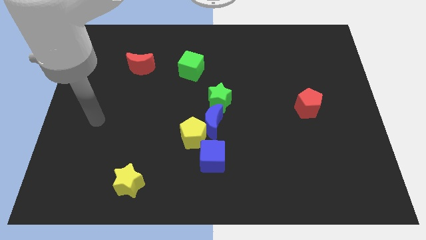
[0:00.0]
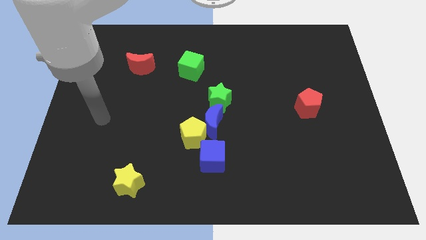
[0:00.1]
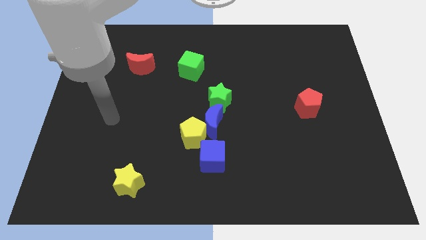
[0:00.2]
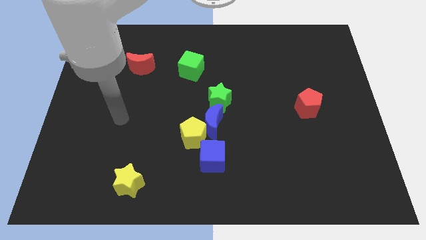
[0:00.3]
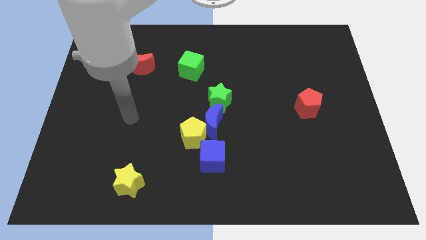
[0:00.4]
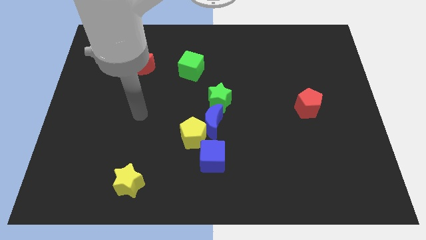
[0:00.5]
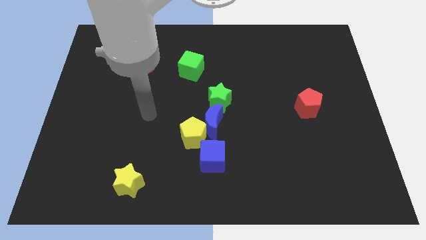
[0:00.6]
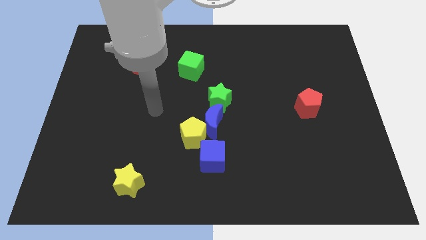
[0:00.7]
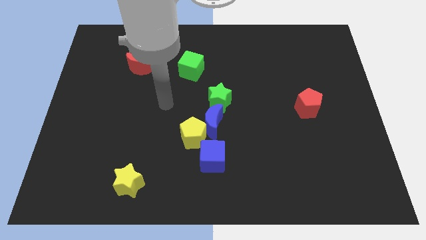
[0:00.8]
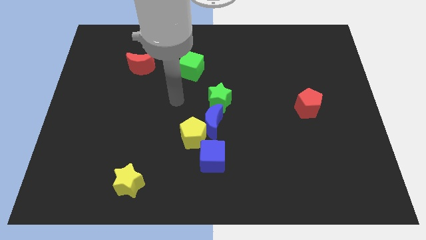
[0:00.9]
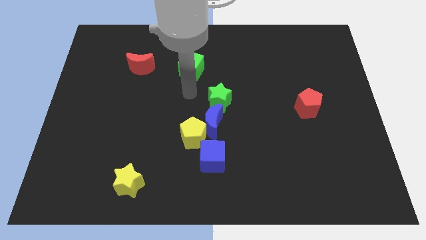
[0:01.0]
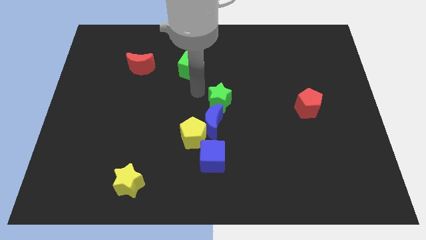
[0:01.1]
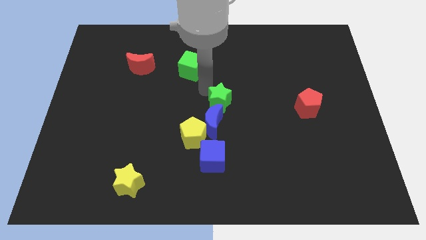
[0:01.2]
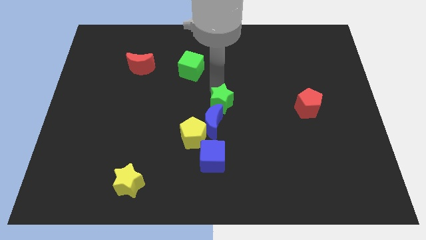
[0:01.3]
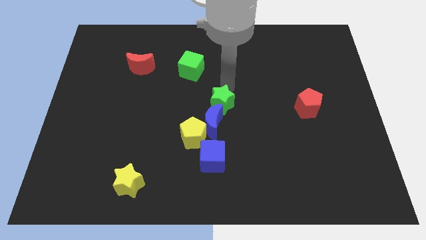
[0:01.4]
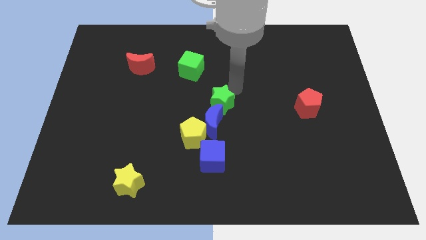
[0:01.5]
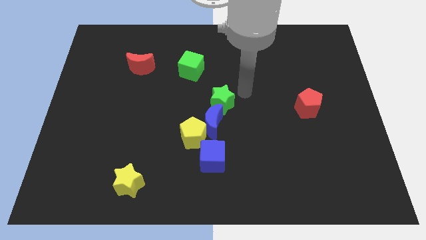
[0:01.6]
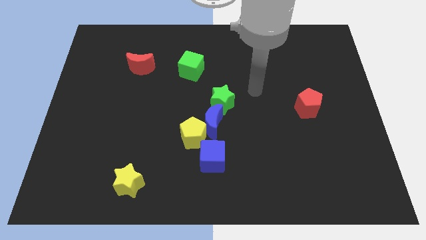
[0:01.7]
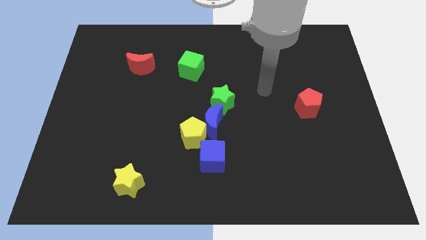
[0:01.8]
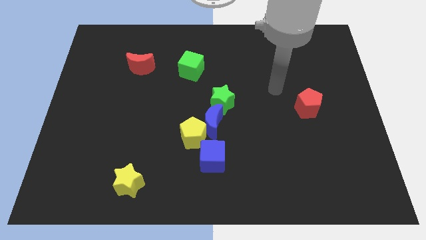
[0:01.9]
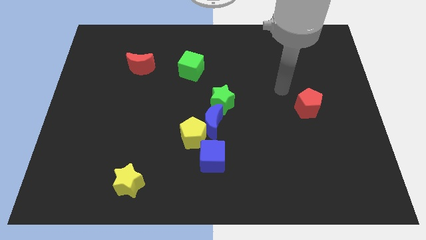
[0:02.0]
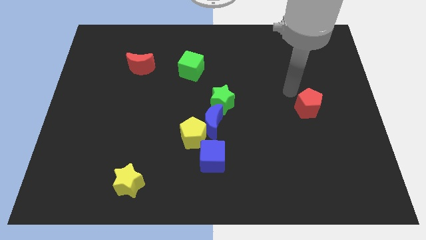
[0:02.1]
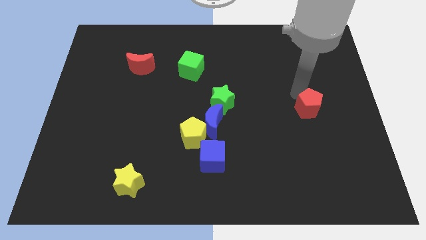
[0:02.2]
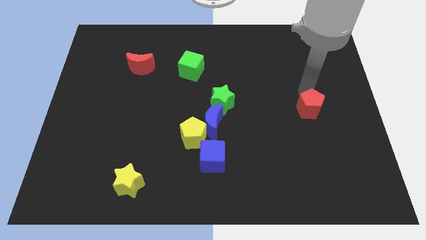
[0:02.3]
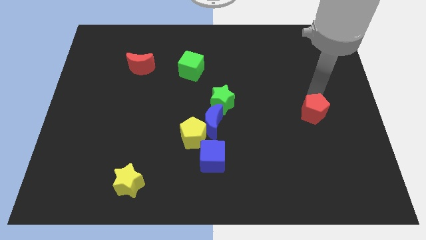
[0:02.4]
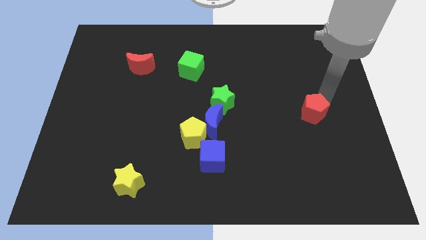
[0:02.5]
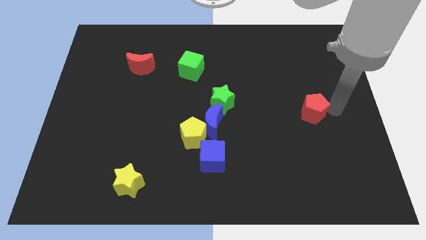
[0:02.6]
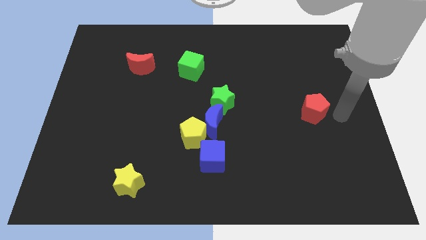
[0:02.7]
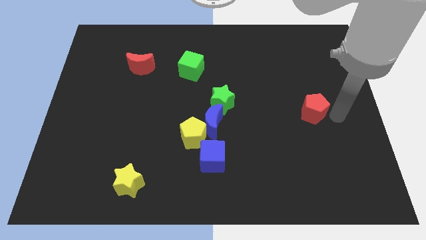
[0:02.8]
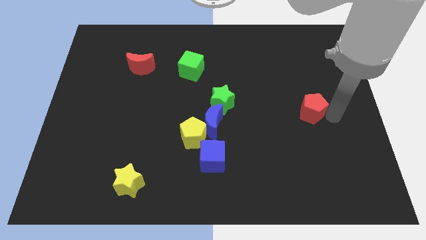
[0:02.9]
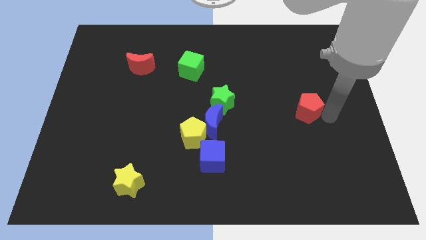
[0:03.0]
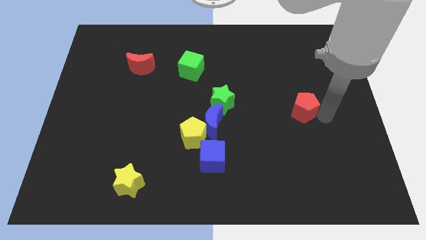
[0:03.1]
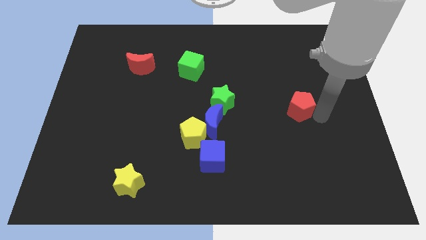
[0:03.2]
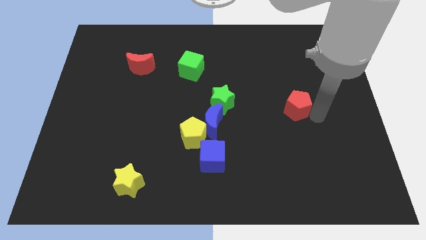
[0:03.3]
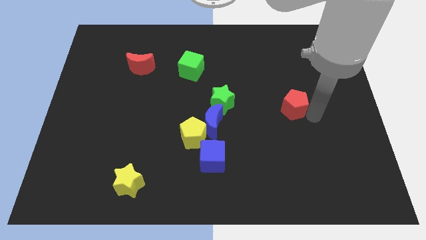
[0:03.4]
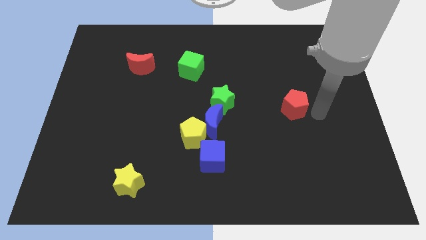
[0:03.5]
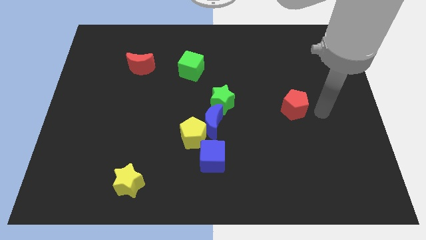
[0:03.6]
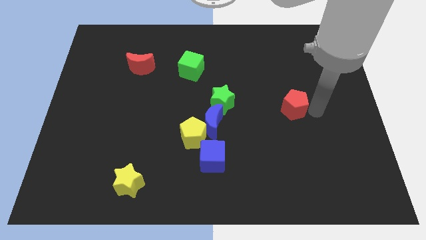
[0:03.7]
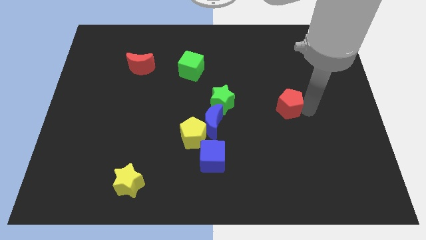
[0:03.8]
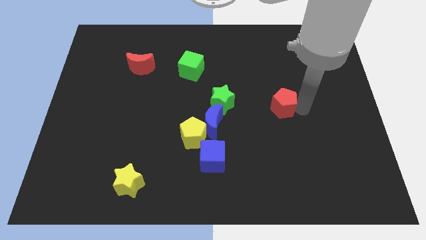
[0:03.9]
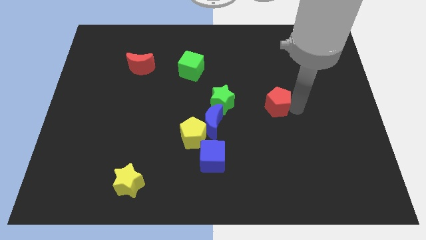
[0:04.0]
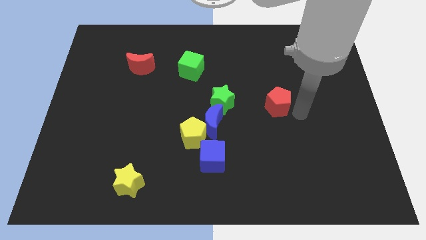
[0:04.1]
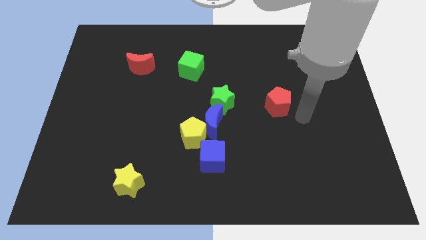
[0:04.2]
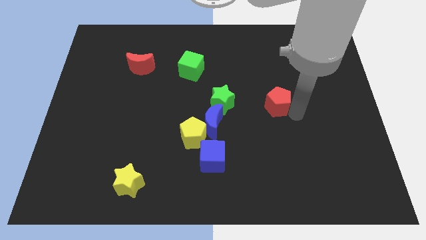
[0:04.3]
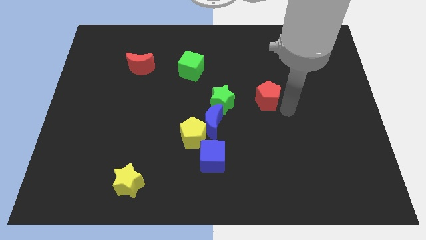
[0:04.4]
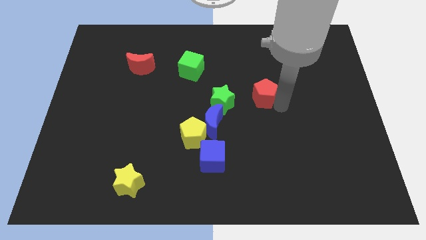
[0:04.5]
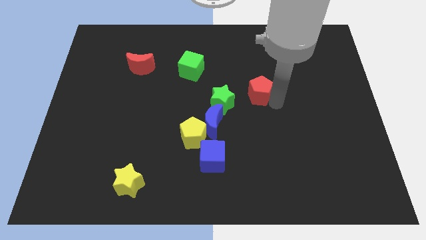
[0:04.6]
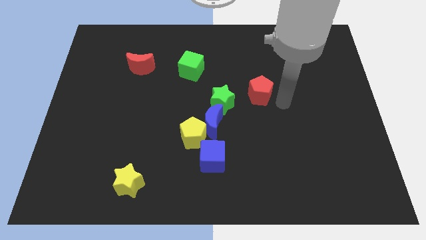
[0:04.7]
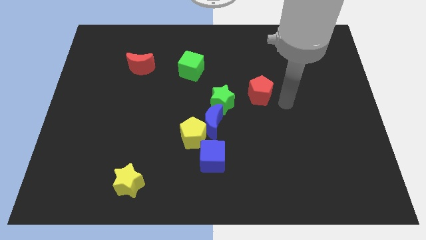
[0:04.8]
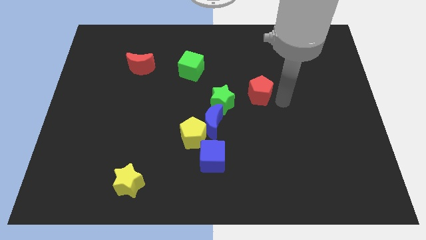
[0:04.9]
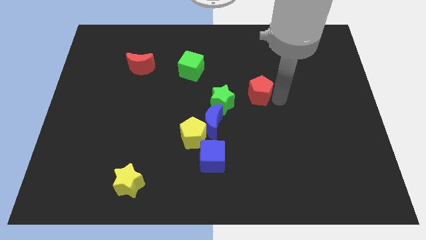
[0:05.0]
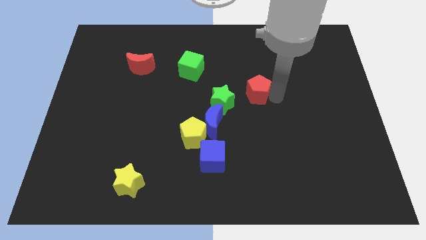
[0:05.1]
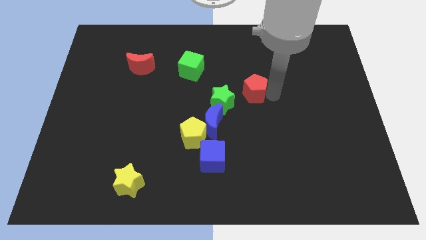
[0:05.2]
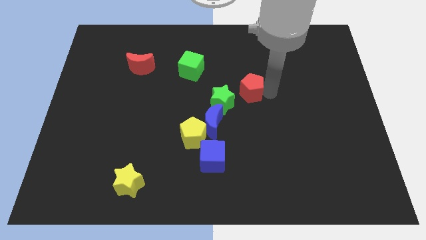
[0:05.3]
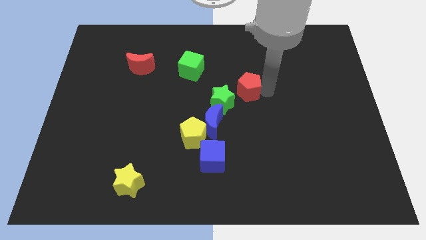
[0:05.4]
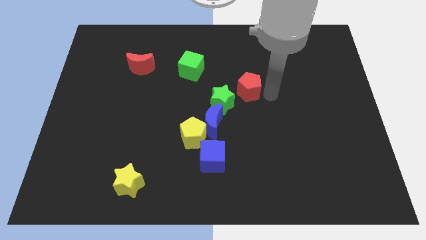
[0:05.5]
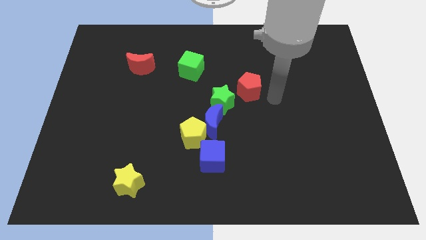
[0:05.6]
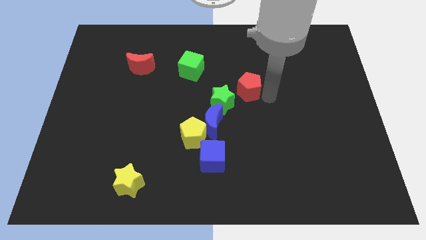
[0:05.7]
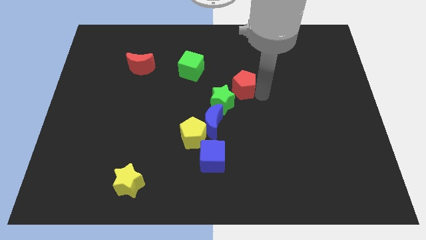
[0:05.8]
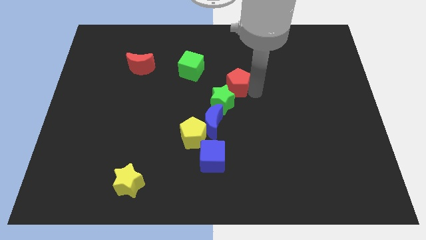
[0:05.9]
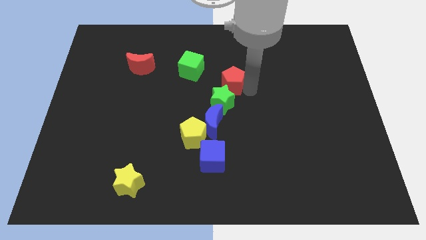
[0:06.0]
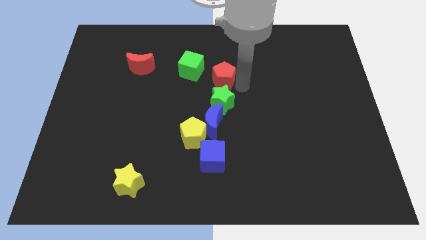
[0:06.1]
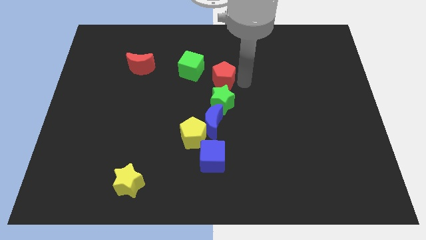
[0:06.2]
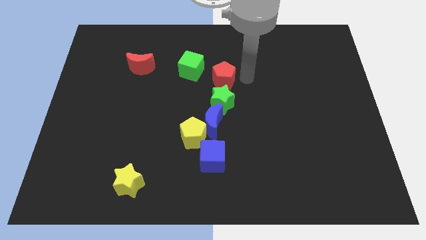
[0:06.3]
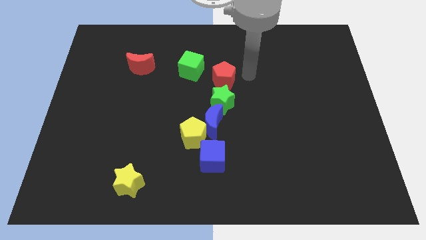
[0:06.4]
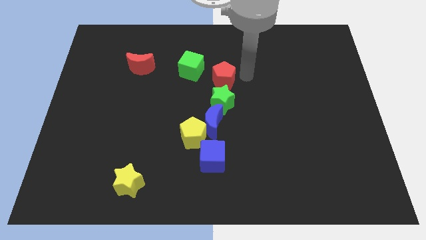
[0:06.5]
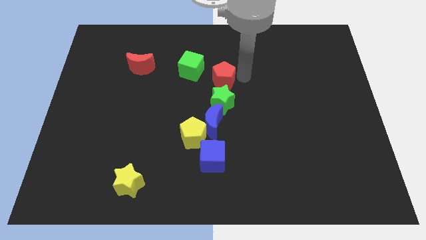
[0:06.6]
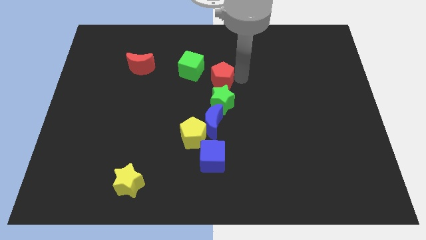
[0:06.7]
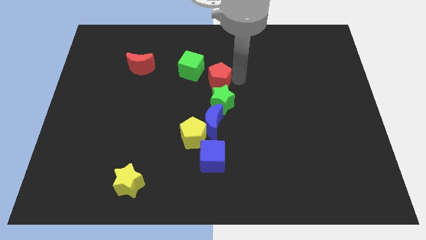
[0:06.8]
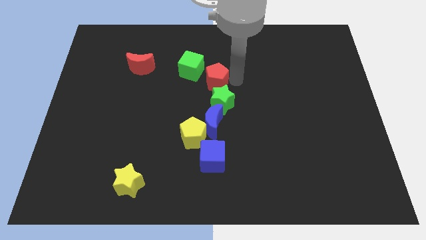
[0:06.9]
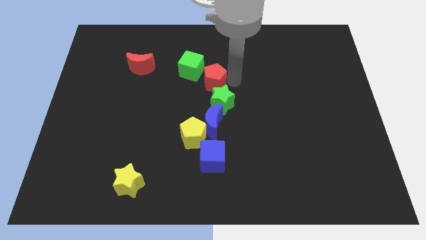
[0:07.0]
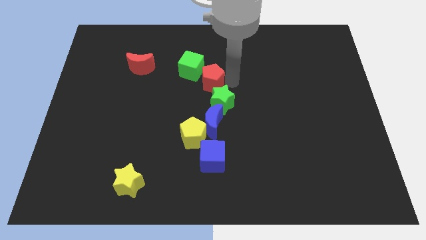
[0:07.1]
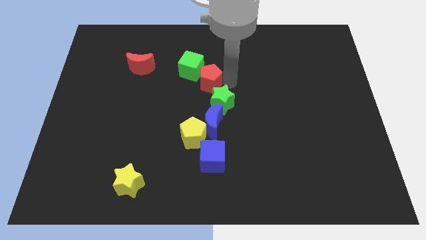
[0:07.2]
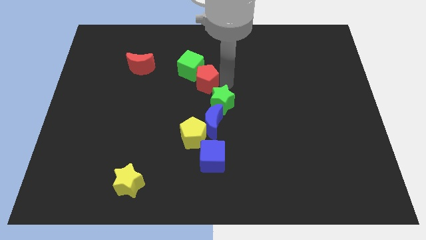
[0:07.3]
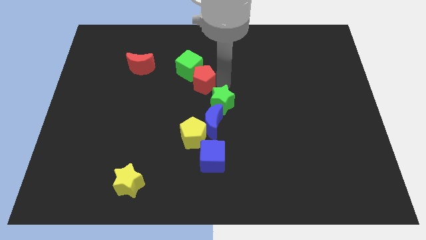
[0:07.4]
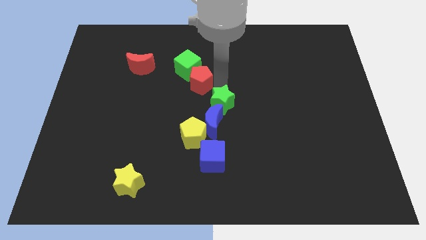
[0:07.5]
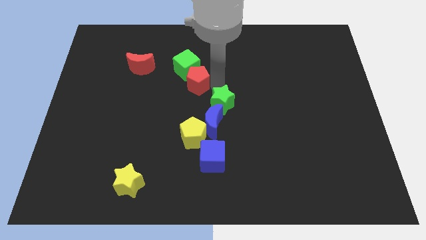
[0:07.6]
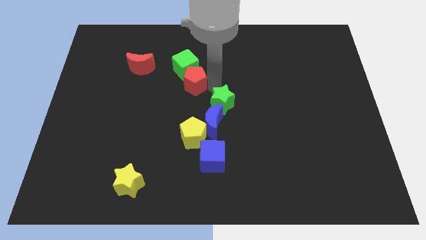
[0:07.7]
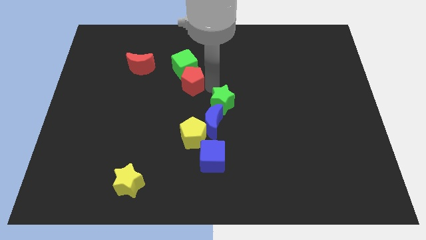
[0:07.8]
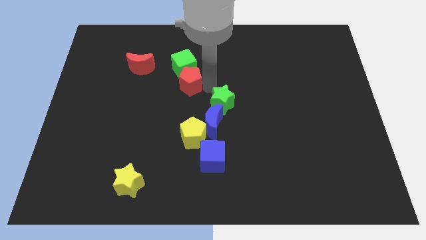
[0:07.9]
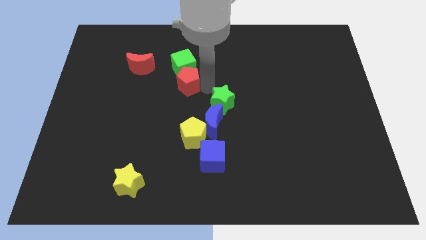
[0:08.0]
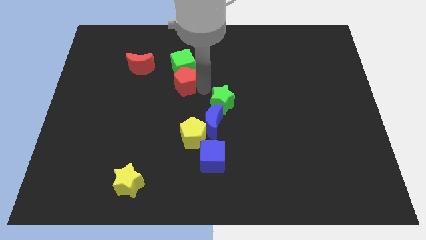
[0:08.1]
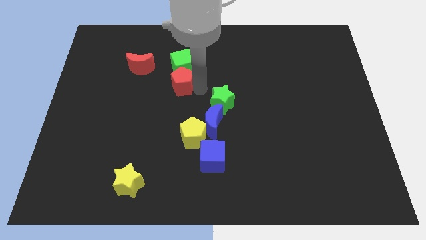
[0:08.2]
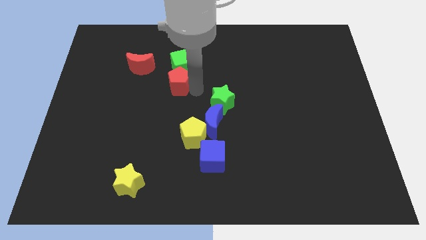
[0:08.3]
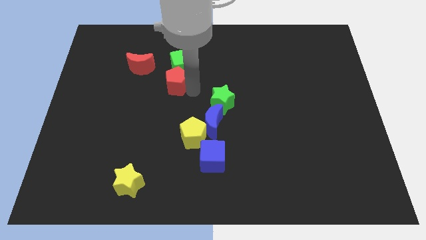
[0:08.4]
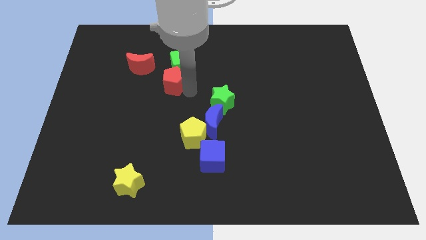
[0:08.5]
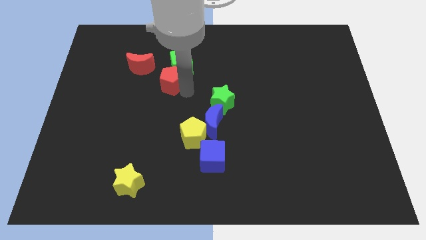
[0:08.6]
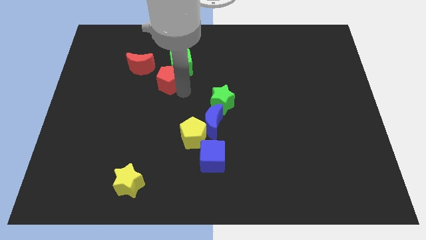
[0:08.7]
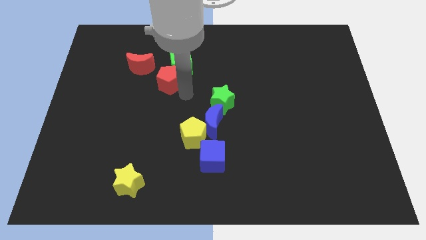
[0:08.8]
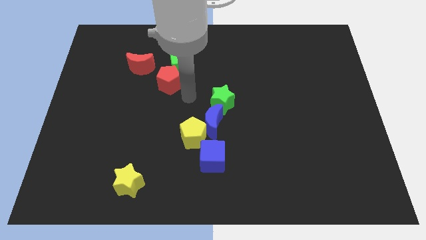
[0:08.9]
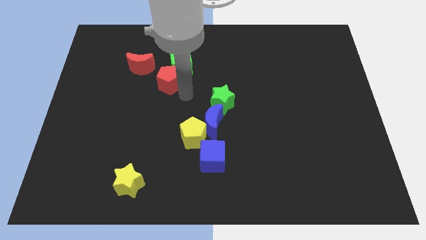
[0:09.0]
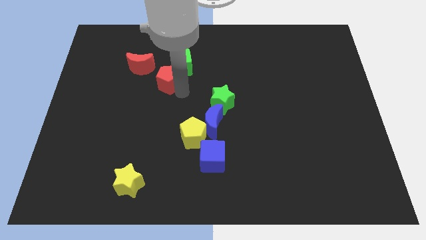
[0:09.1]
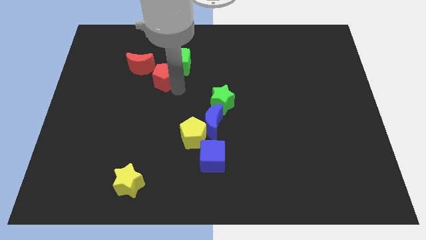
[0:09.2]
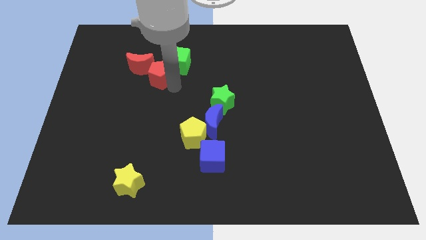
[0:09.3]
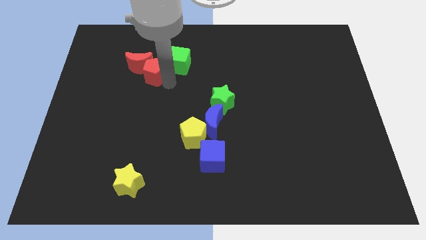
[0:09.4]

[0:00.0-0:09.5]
push the red pentagon to the red moon
